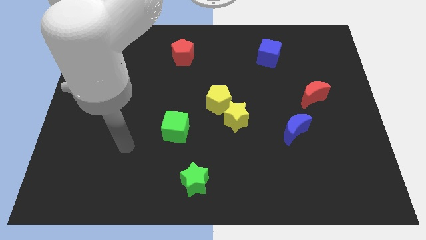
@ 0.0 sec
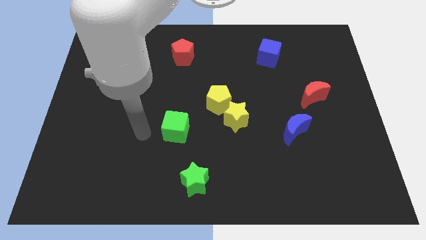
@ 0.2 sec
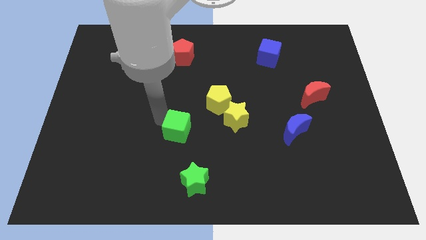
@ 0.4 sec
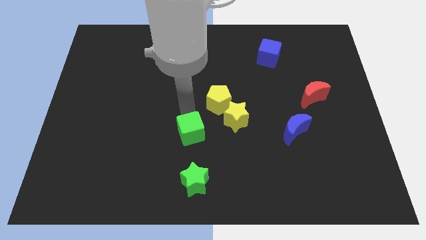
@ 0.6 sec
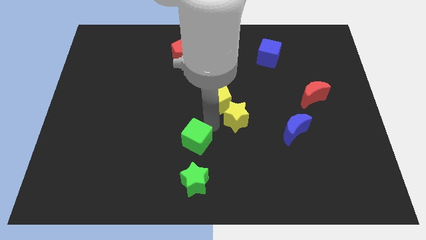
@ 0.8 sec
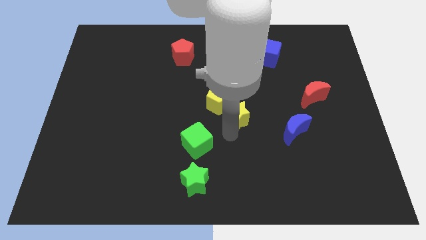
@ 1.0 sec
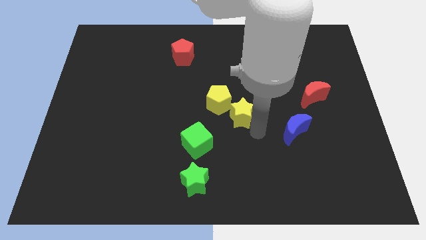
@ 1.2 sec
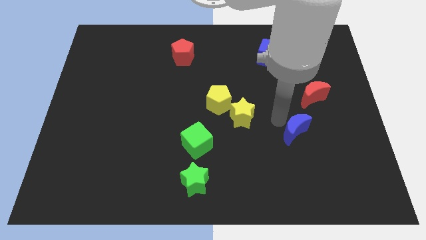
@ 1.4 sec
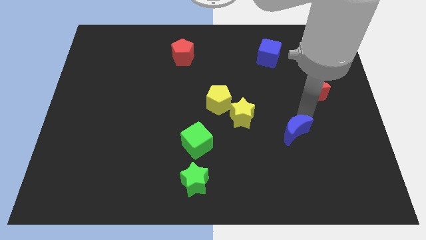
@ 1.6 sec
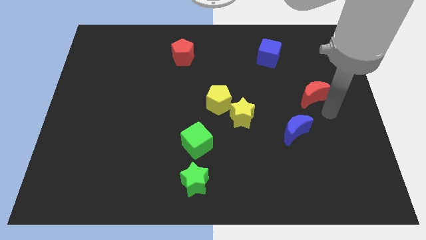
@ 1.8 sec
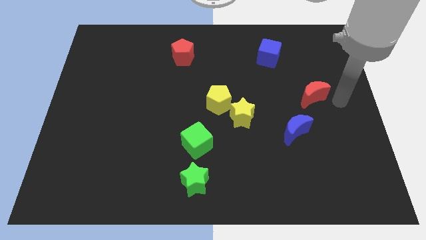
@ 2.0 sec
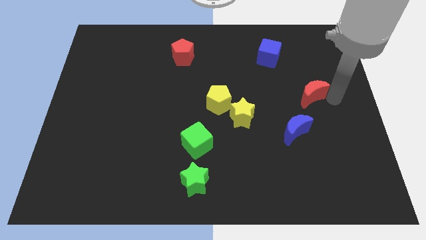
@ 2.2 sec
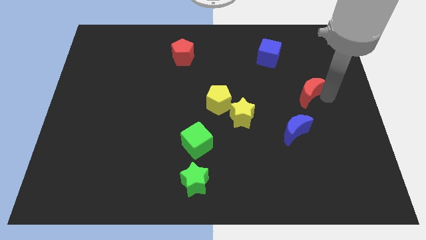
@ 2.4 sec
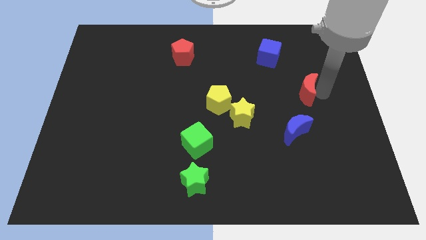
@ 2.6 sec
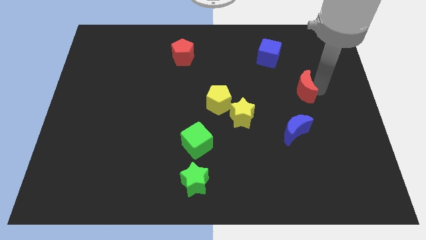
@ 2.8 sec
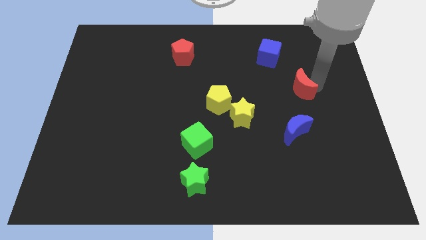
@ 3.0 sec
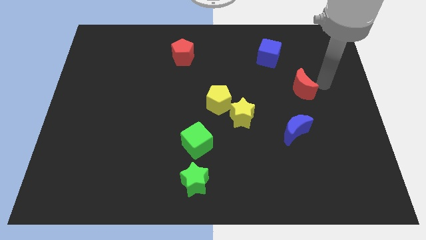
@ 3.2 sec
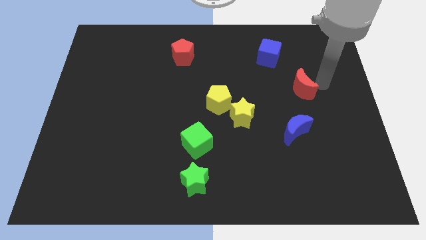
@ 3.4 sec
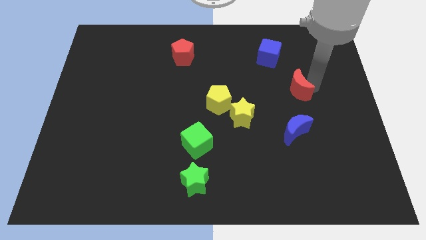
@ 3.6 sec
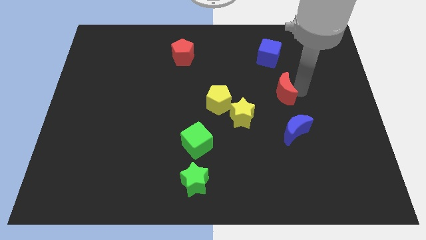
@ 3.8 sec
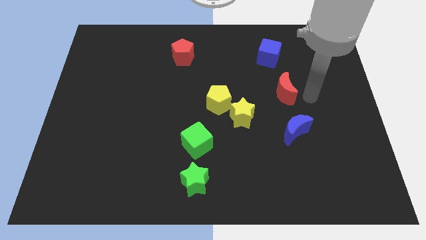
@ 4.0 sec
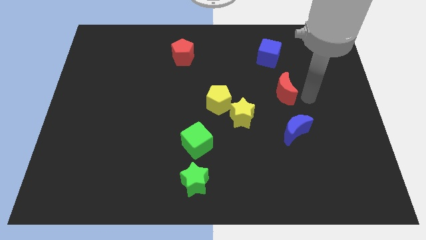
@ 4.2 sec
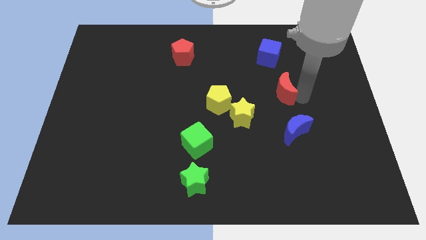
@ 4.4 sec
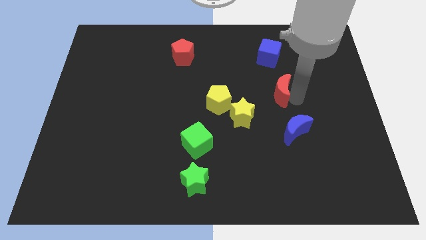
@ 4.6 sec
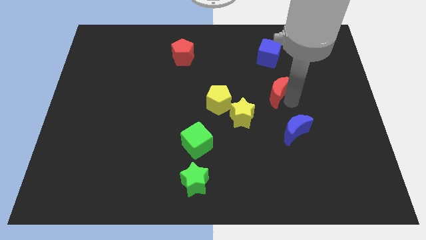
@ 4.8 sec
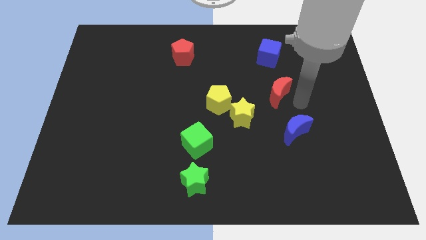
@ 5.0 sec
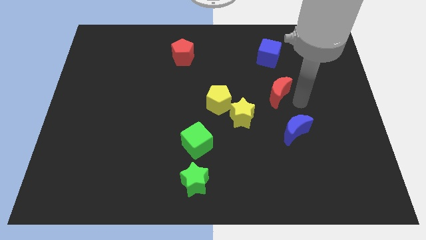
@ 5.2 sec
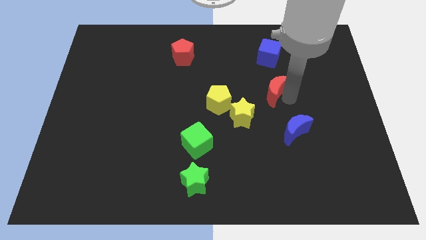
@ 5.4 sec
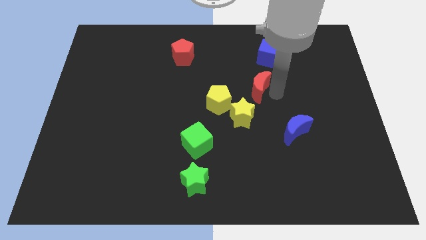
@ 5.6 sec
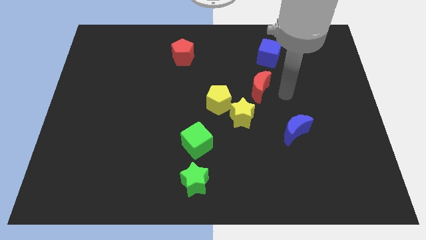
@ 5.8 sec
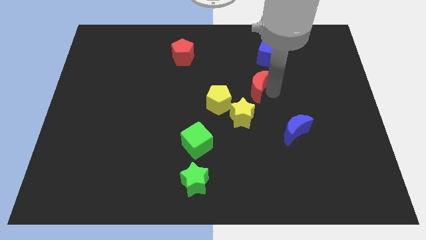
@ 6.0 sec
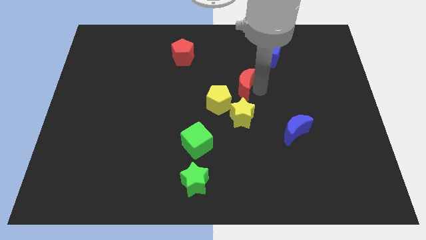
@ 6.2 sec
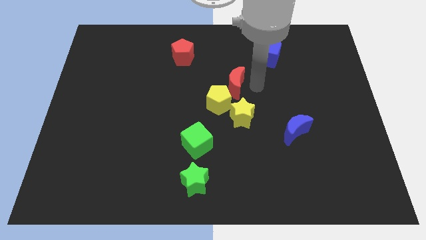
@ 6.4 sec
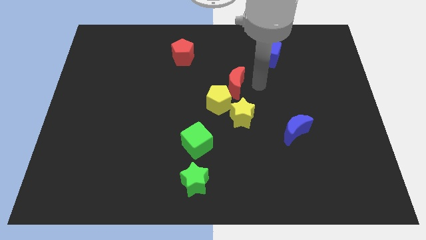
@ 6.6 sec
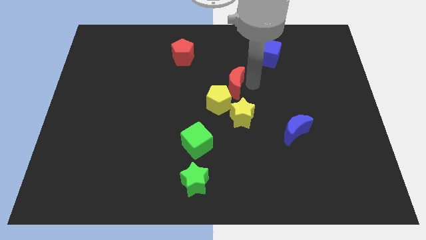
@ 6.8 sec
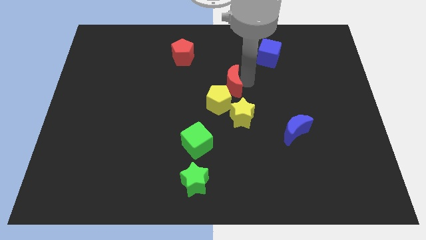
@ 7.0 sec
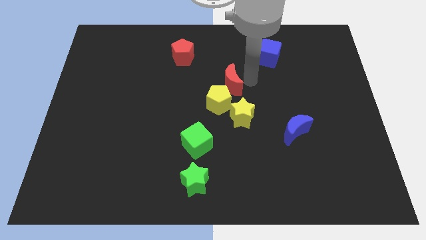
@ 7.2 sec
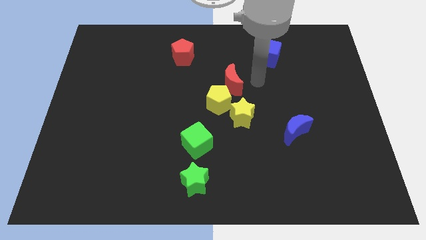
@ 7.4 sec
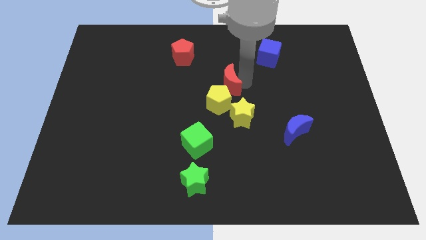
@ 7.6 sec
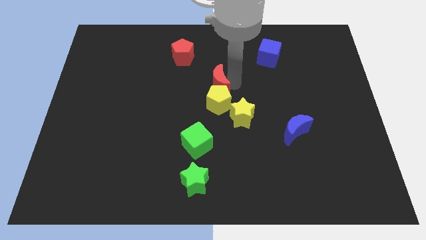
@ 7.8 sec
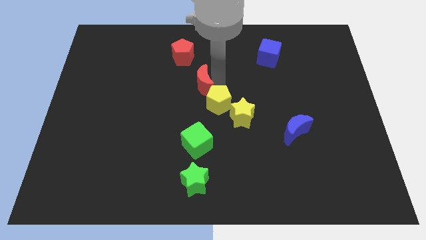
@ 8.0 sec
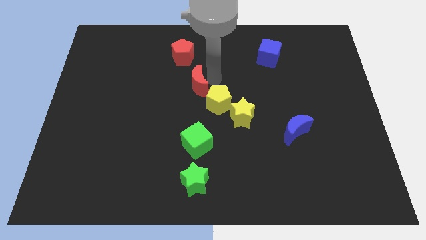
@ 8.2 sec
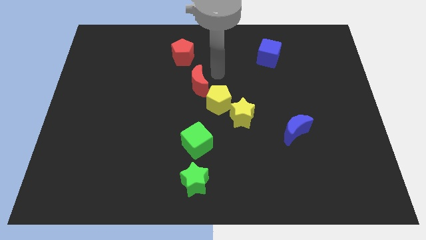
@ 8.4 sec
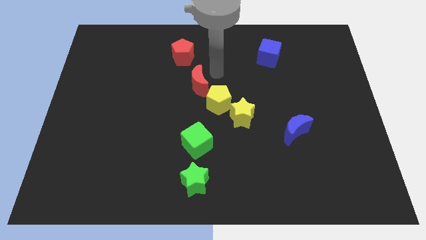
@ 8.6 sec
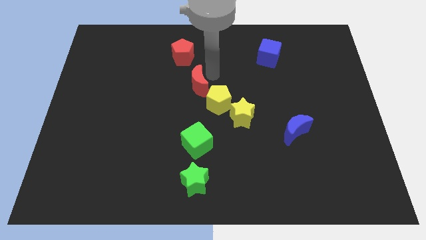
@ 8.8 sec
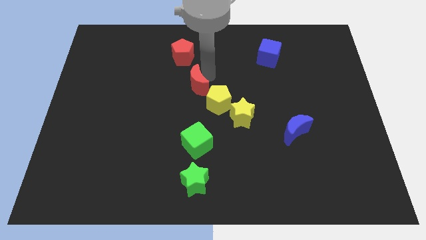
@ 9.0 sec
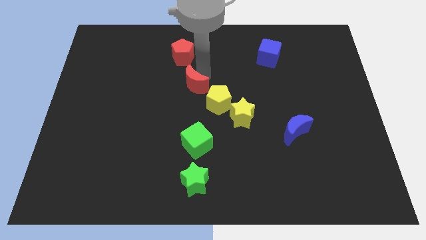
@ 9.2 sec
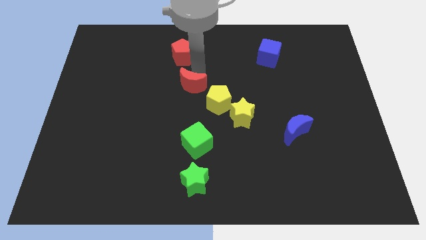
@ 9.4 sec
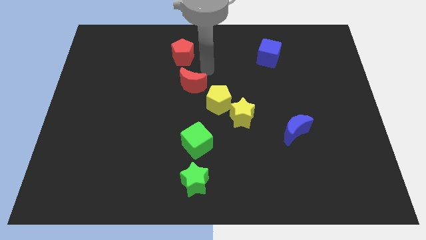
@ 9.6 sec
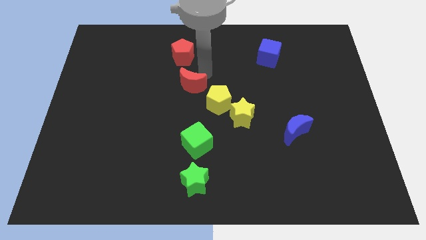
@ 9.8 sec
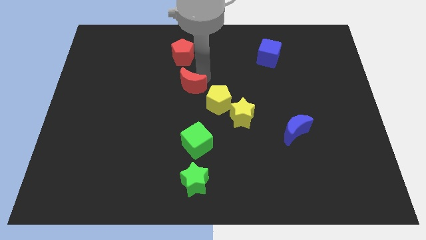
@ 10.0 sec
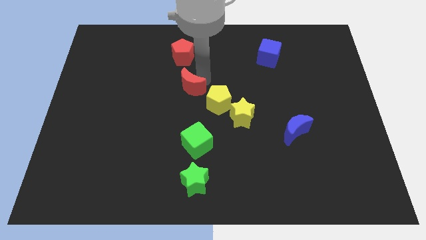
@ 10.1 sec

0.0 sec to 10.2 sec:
push the red moon just left of the yellow pentagon

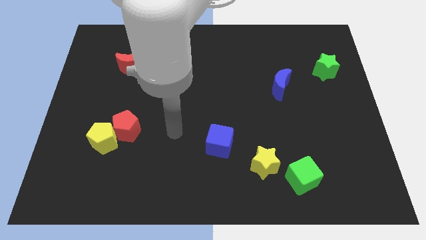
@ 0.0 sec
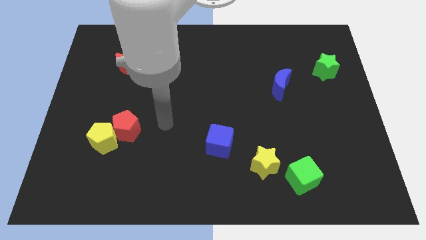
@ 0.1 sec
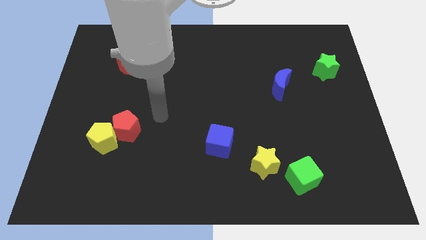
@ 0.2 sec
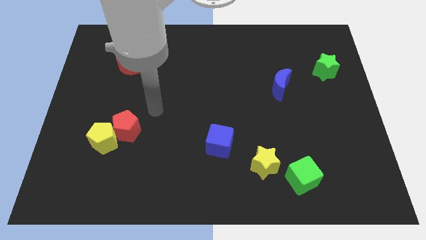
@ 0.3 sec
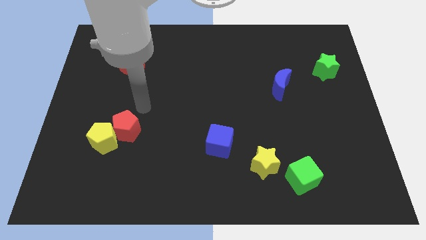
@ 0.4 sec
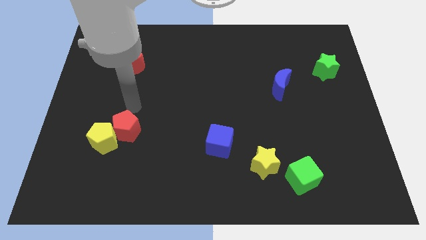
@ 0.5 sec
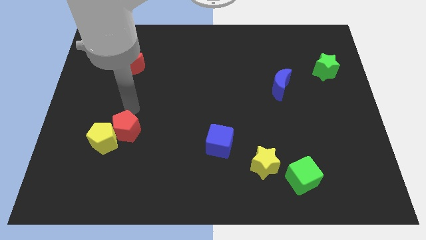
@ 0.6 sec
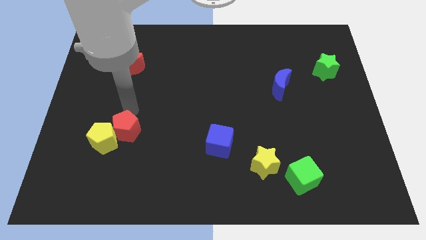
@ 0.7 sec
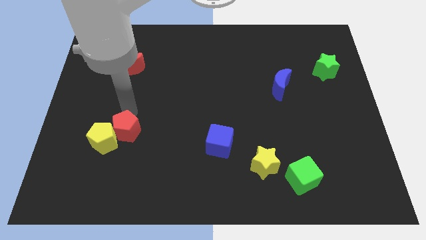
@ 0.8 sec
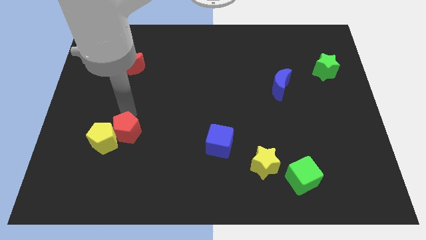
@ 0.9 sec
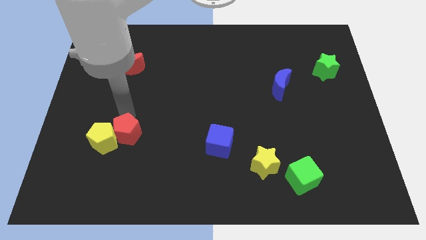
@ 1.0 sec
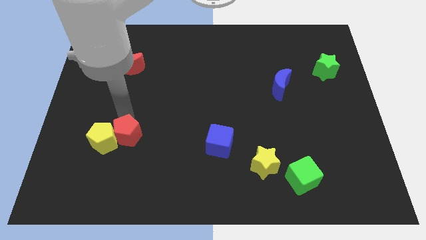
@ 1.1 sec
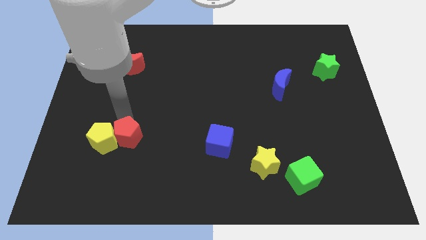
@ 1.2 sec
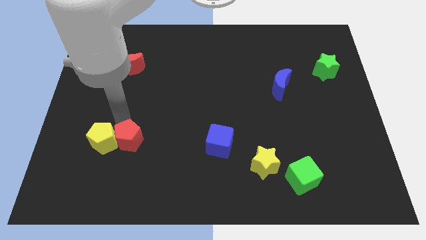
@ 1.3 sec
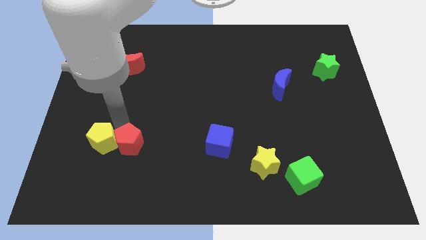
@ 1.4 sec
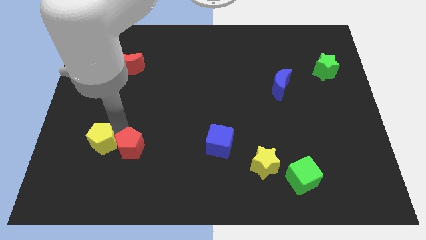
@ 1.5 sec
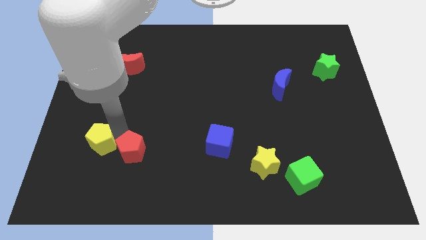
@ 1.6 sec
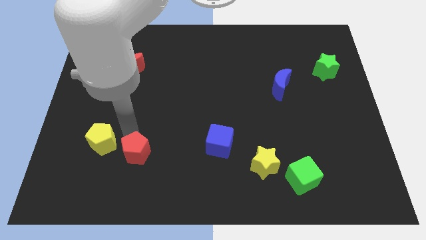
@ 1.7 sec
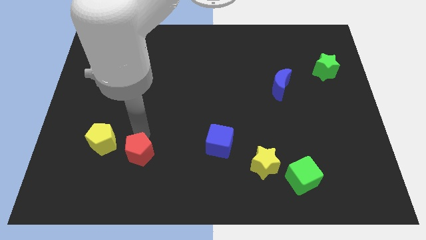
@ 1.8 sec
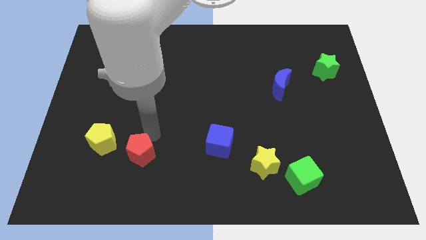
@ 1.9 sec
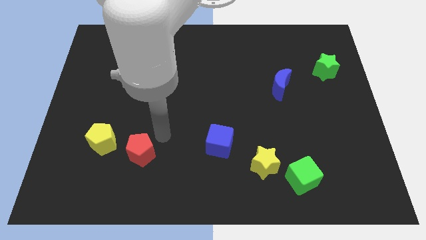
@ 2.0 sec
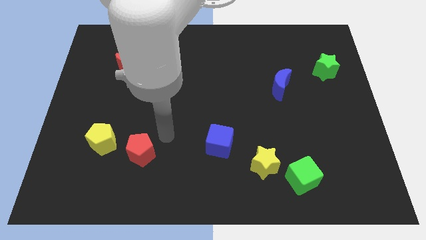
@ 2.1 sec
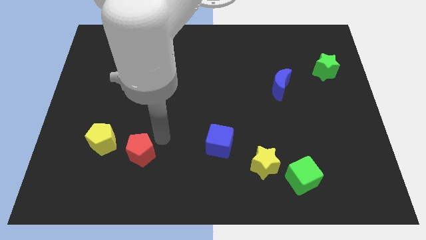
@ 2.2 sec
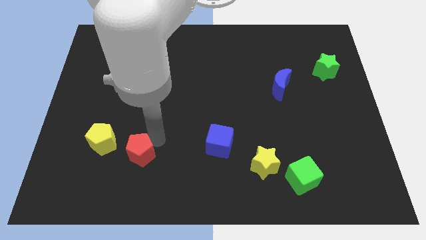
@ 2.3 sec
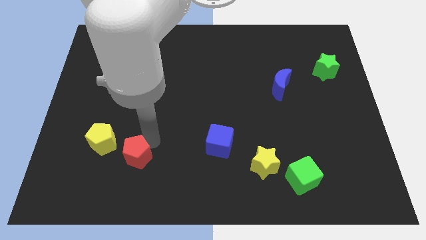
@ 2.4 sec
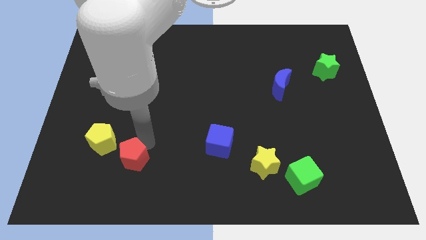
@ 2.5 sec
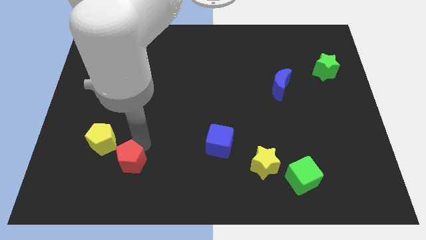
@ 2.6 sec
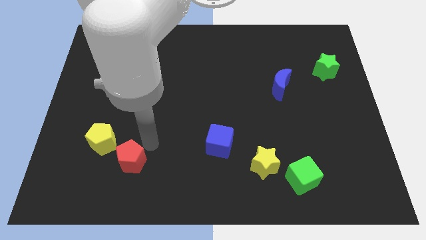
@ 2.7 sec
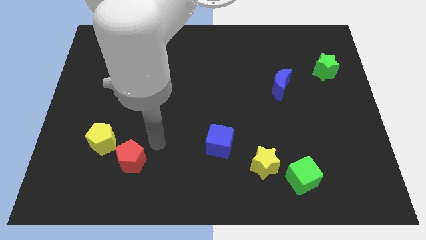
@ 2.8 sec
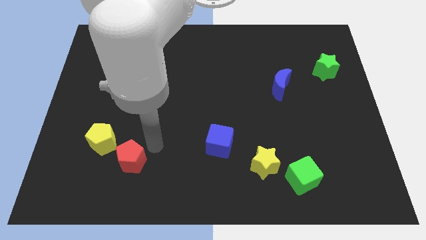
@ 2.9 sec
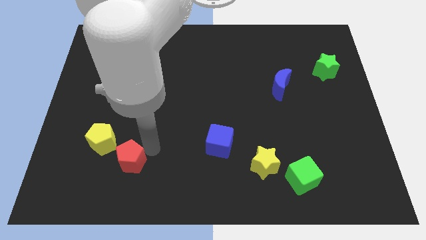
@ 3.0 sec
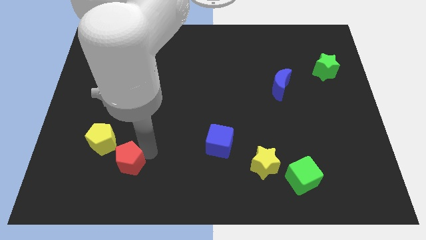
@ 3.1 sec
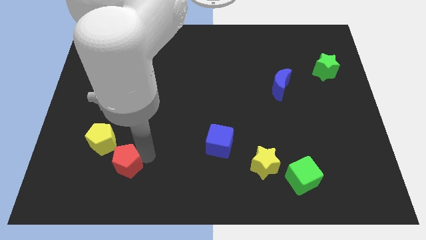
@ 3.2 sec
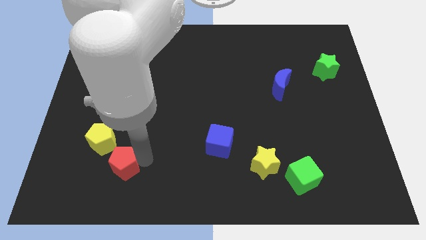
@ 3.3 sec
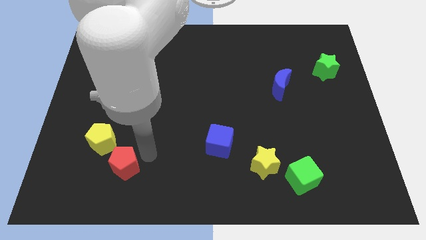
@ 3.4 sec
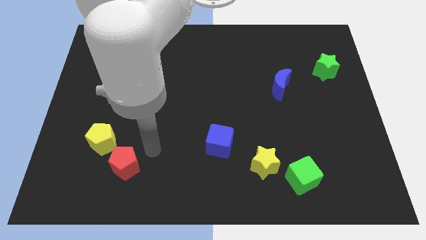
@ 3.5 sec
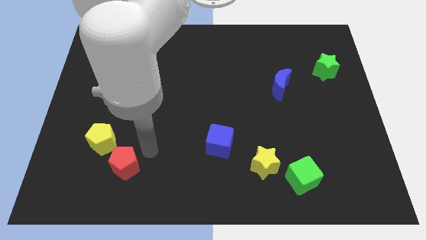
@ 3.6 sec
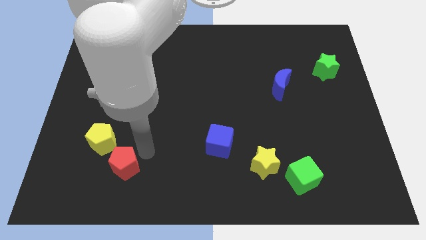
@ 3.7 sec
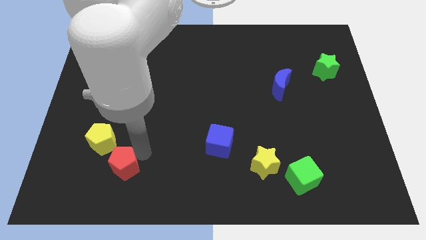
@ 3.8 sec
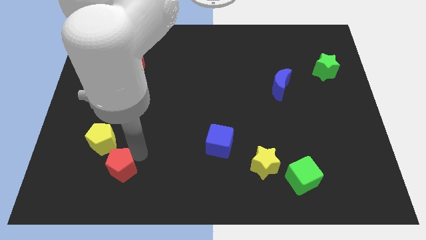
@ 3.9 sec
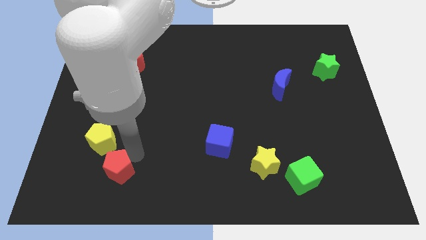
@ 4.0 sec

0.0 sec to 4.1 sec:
put the red pentagon to the bottom of the yellow pentagon
